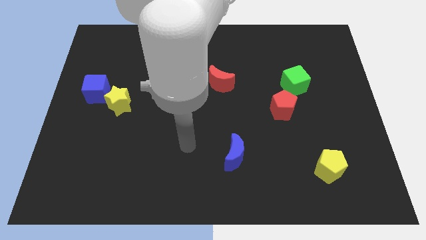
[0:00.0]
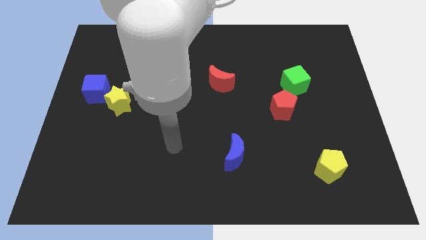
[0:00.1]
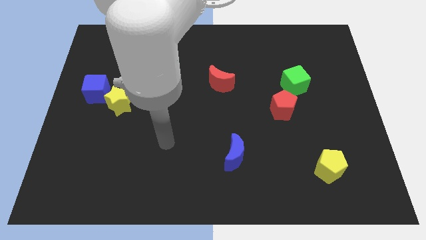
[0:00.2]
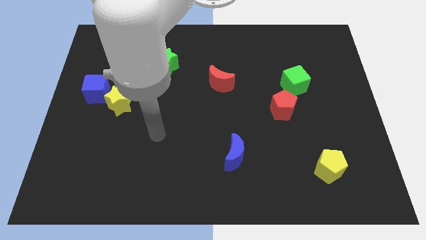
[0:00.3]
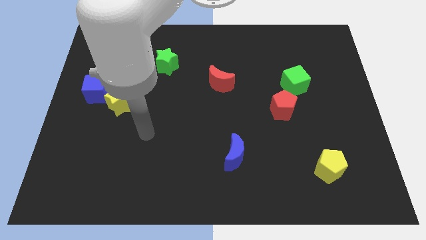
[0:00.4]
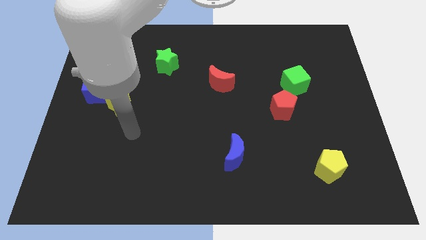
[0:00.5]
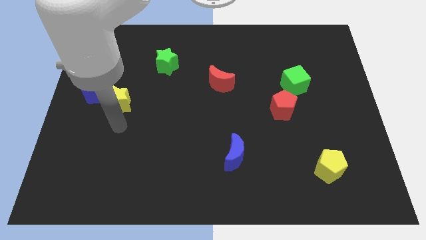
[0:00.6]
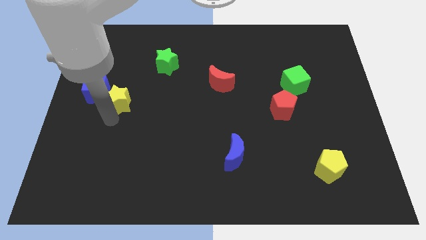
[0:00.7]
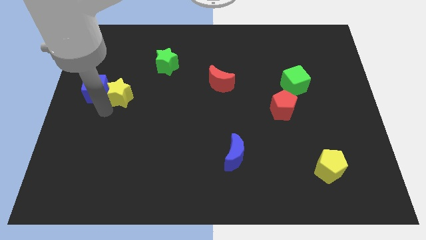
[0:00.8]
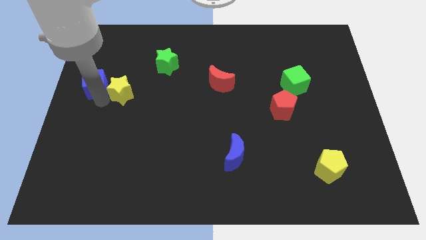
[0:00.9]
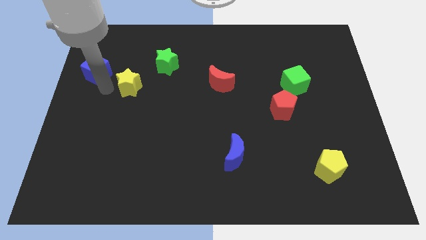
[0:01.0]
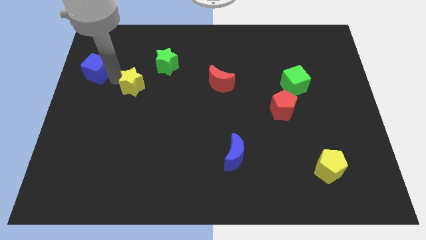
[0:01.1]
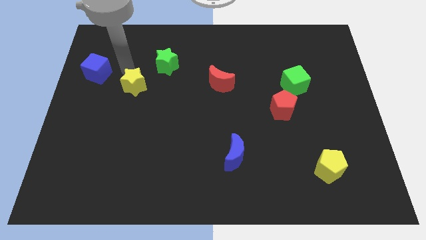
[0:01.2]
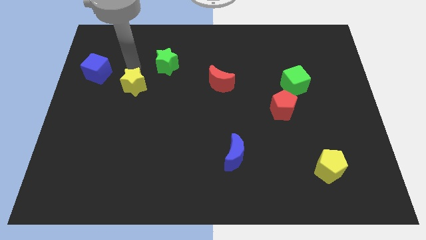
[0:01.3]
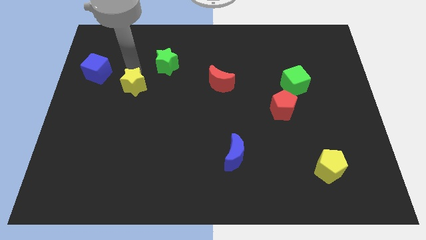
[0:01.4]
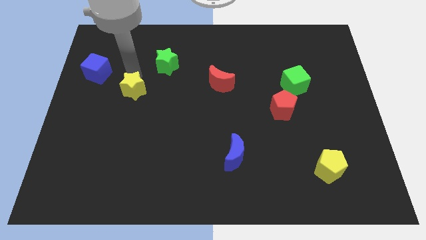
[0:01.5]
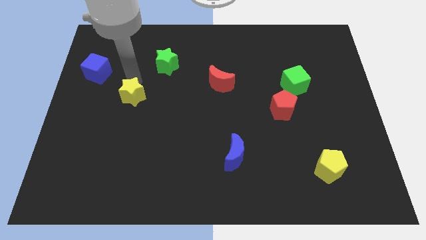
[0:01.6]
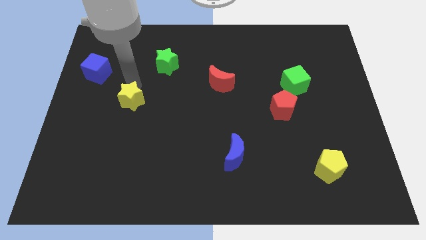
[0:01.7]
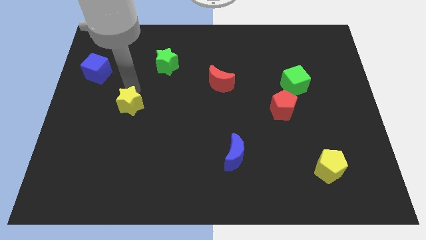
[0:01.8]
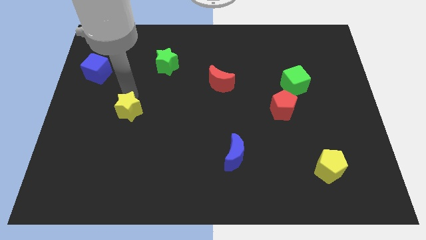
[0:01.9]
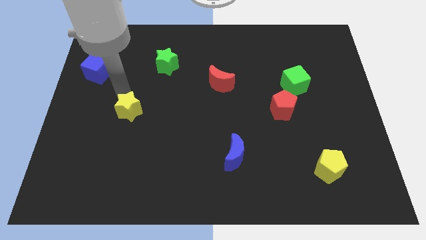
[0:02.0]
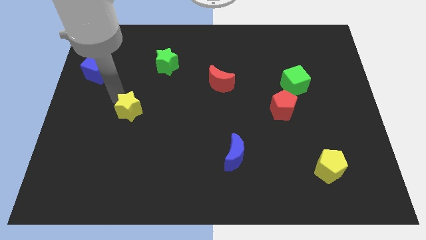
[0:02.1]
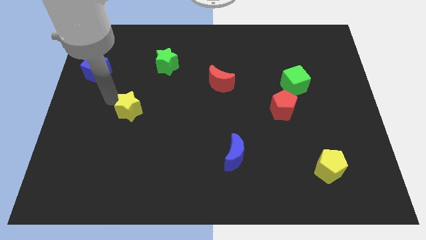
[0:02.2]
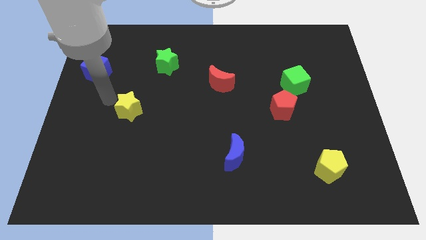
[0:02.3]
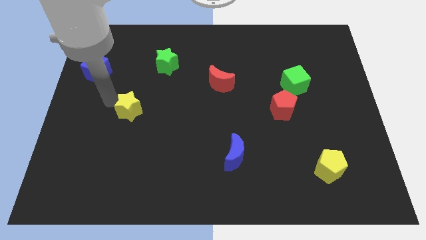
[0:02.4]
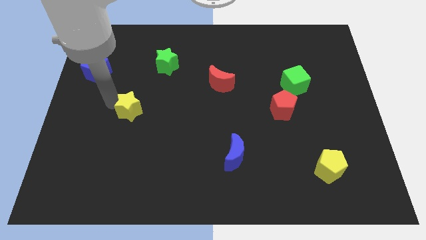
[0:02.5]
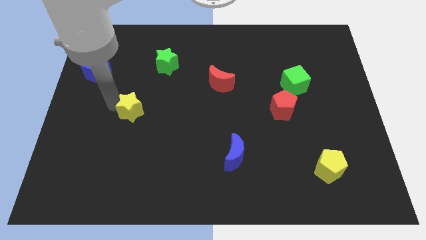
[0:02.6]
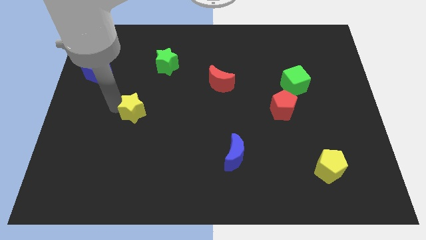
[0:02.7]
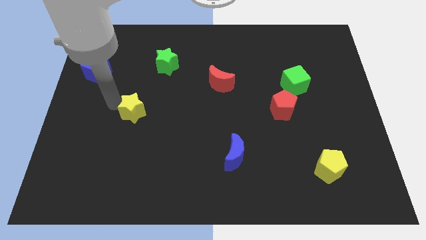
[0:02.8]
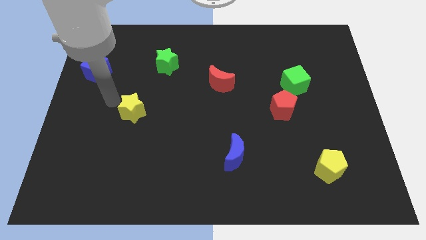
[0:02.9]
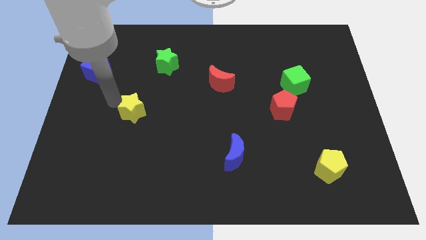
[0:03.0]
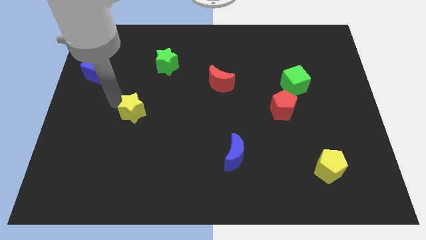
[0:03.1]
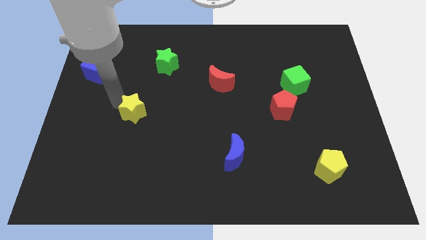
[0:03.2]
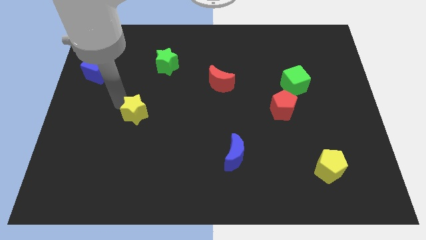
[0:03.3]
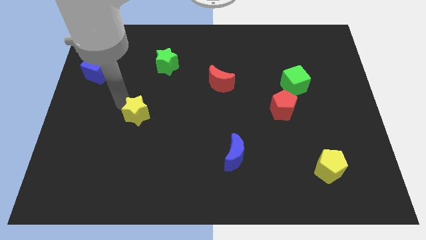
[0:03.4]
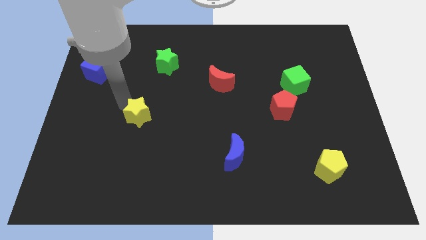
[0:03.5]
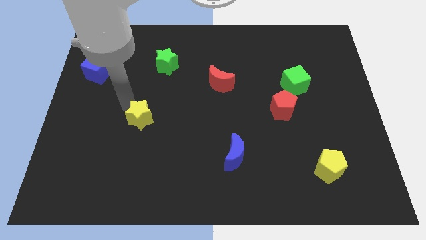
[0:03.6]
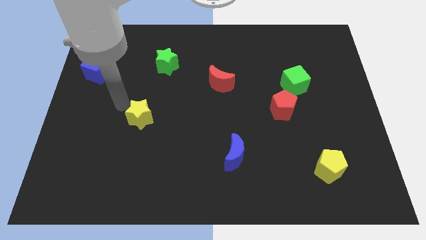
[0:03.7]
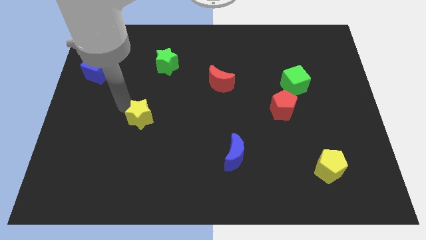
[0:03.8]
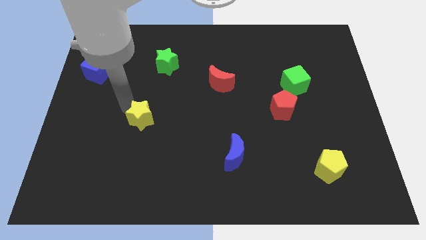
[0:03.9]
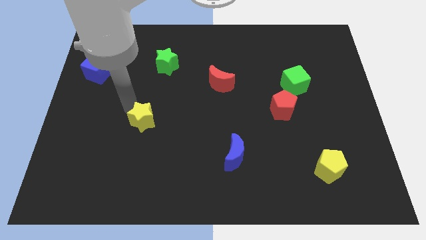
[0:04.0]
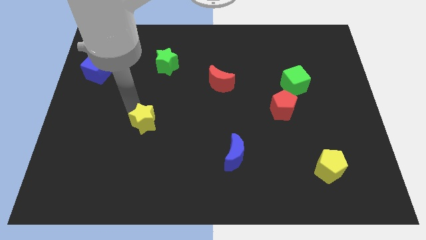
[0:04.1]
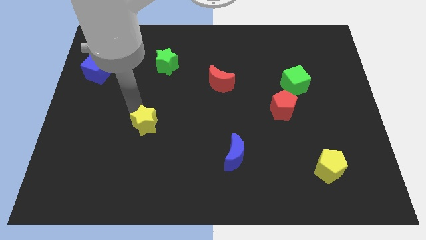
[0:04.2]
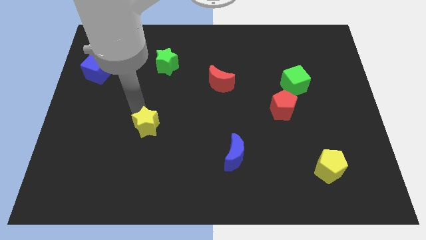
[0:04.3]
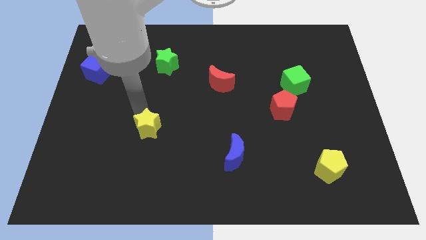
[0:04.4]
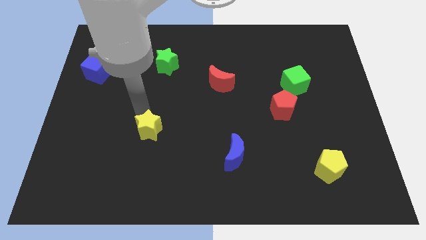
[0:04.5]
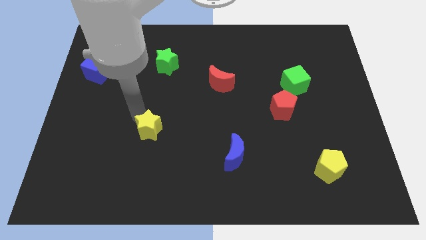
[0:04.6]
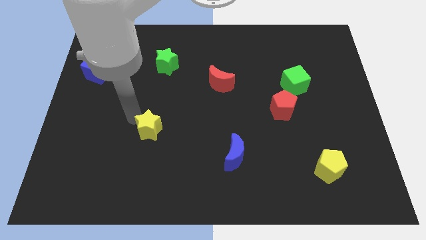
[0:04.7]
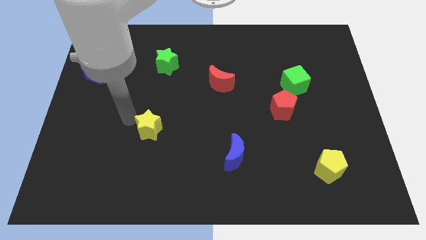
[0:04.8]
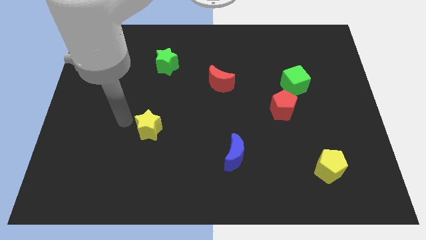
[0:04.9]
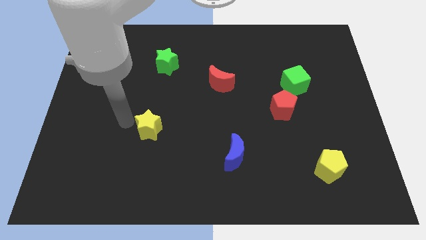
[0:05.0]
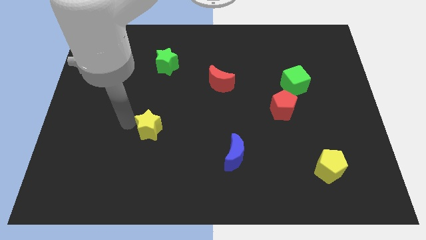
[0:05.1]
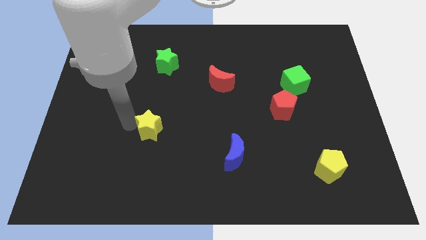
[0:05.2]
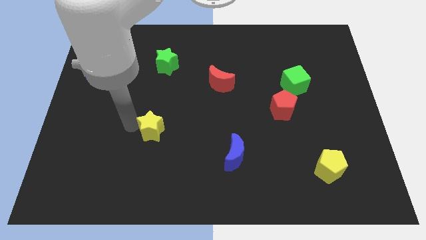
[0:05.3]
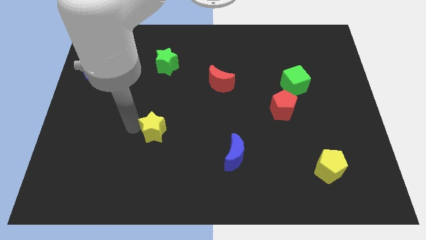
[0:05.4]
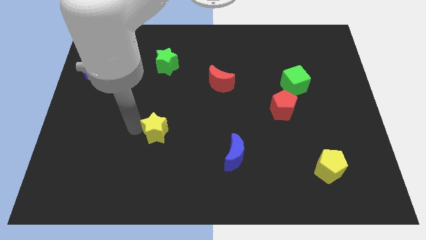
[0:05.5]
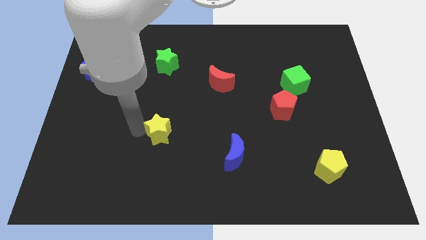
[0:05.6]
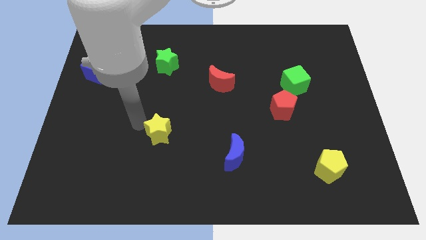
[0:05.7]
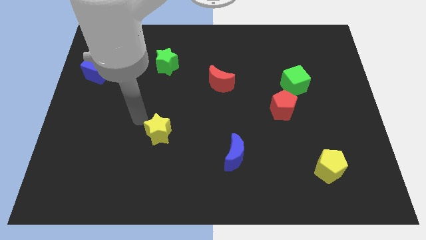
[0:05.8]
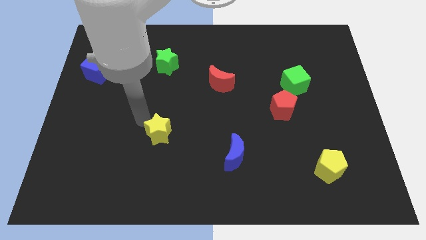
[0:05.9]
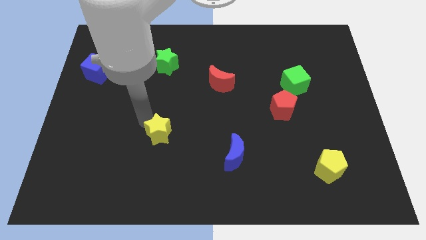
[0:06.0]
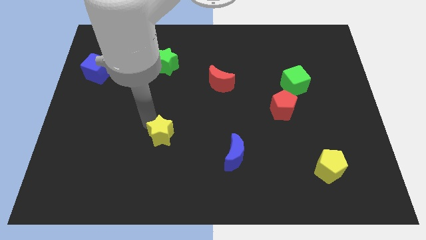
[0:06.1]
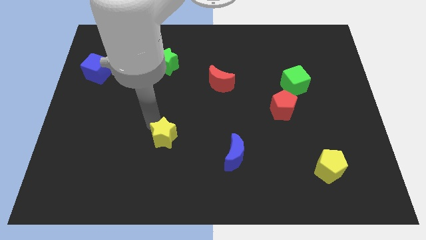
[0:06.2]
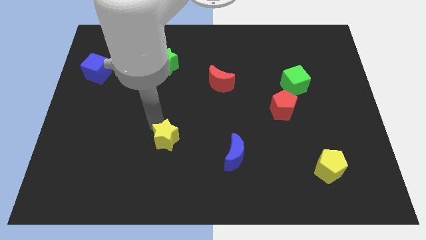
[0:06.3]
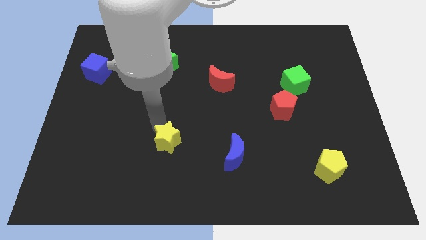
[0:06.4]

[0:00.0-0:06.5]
put the yellow star to the left side of the blue moon
